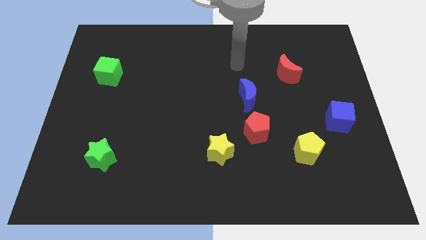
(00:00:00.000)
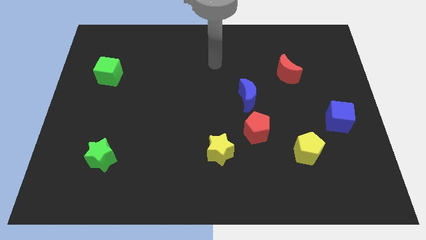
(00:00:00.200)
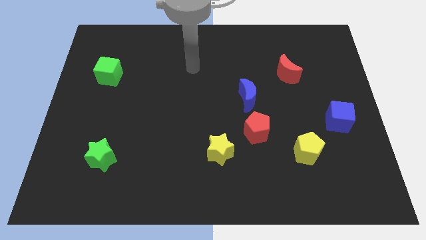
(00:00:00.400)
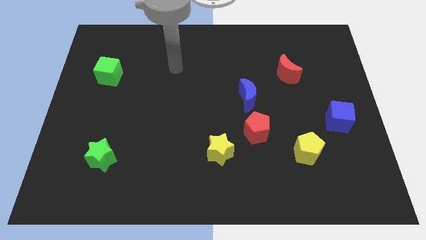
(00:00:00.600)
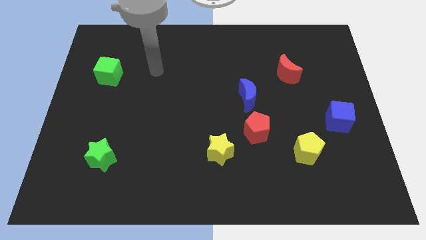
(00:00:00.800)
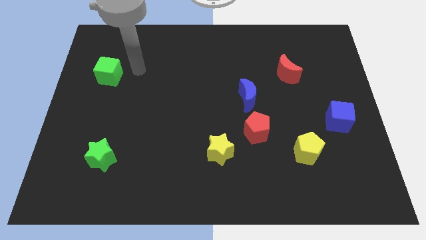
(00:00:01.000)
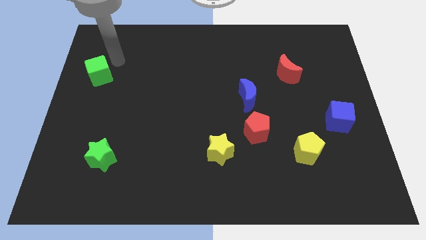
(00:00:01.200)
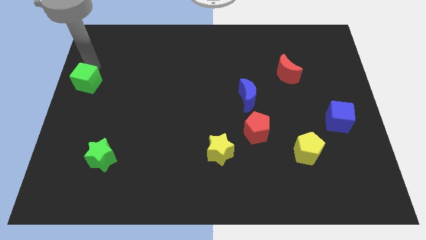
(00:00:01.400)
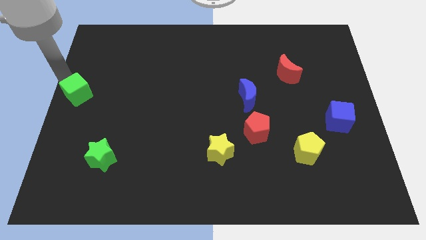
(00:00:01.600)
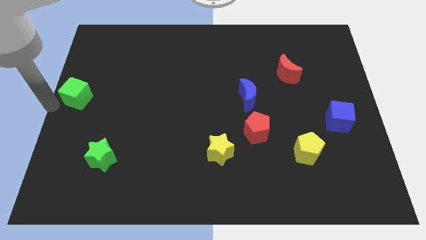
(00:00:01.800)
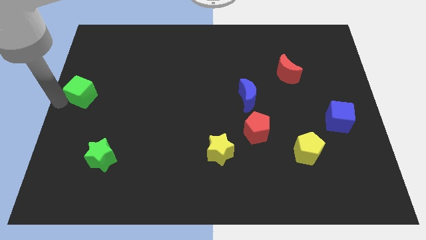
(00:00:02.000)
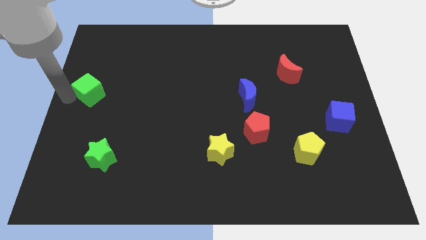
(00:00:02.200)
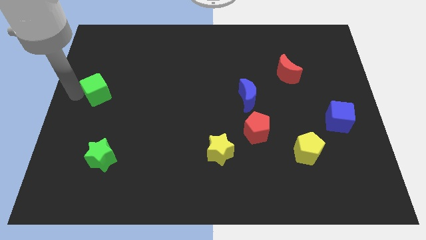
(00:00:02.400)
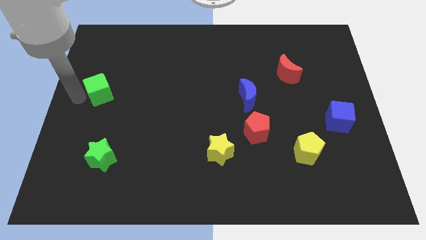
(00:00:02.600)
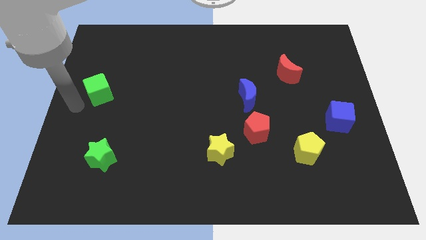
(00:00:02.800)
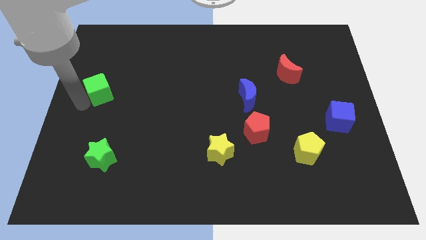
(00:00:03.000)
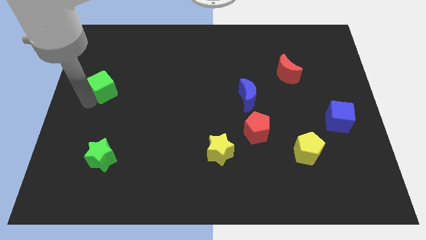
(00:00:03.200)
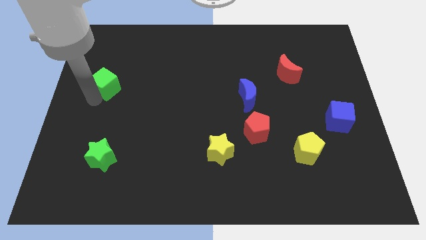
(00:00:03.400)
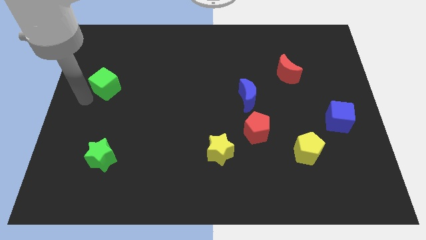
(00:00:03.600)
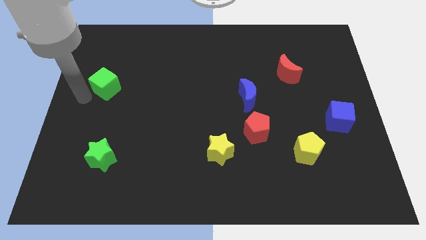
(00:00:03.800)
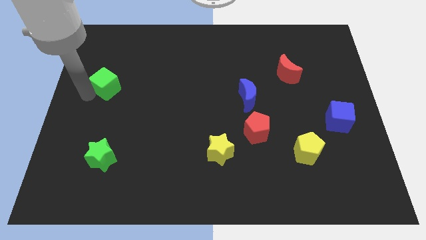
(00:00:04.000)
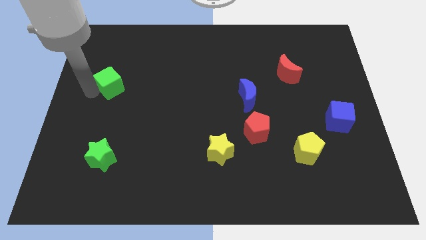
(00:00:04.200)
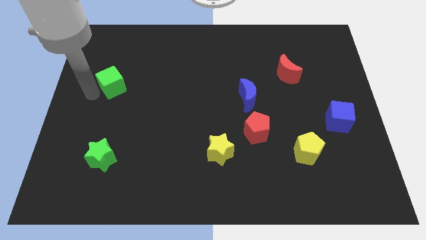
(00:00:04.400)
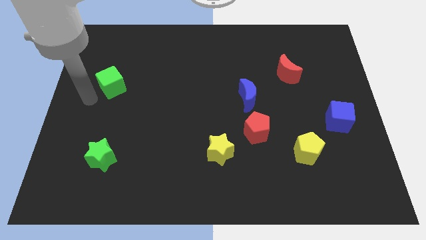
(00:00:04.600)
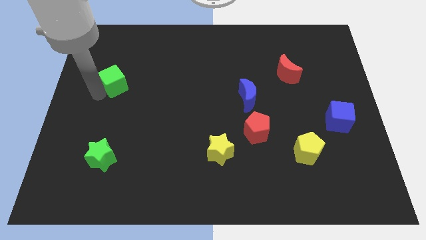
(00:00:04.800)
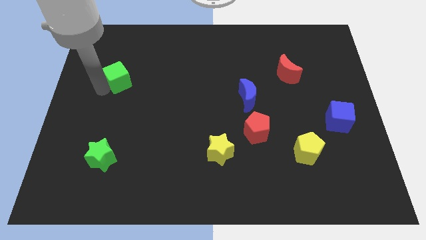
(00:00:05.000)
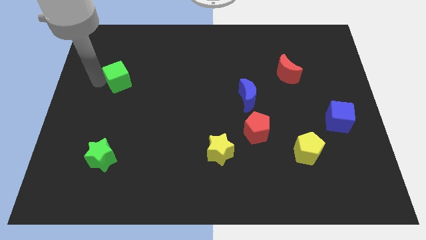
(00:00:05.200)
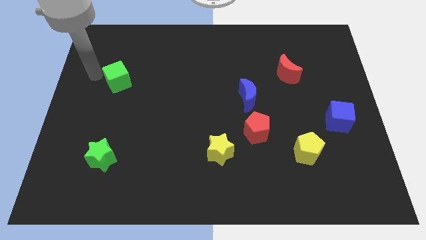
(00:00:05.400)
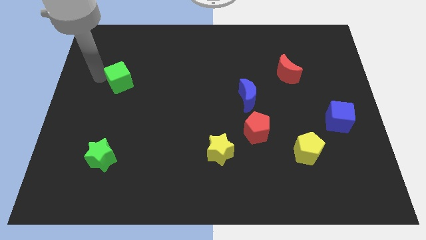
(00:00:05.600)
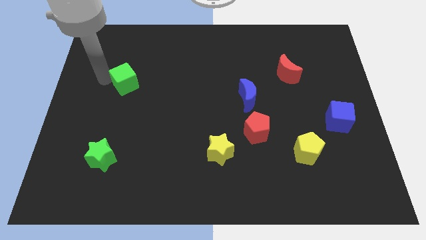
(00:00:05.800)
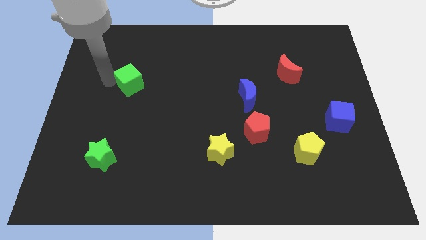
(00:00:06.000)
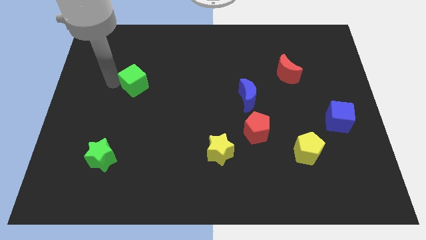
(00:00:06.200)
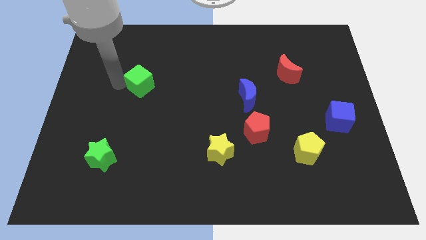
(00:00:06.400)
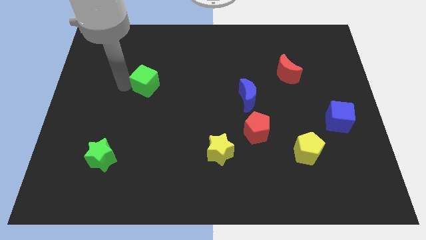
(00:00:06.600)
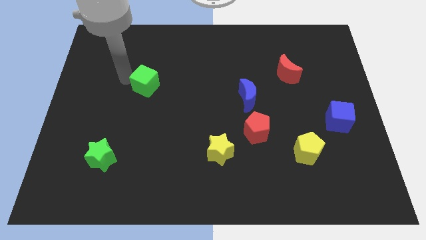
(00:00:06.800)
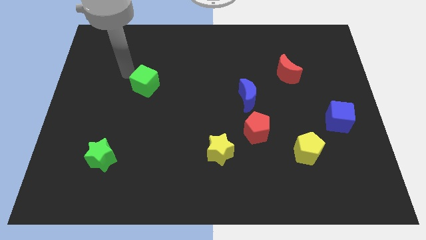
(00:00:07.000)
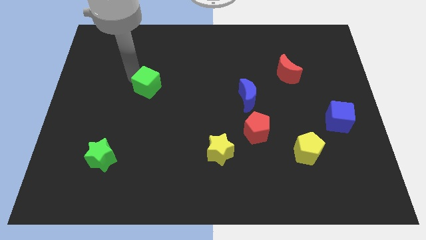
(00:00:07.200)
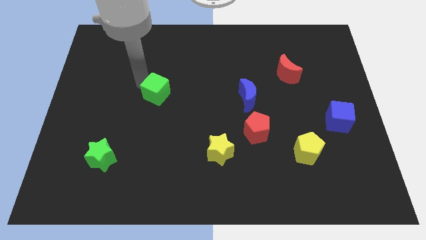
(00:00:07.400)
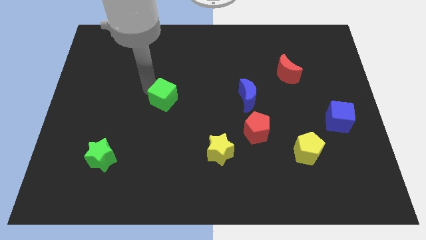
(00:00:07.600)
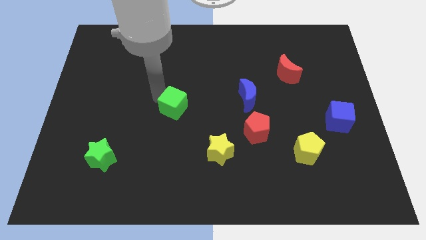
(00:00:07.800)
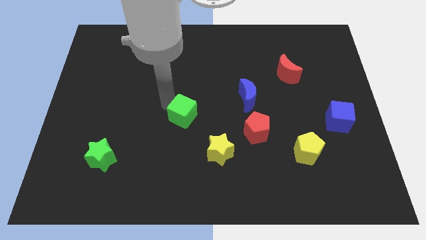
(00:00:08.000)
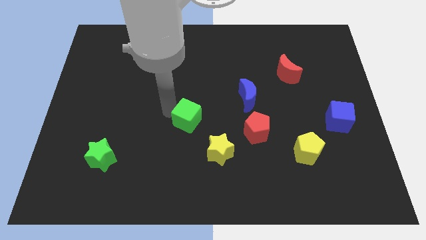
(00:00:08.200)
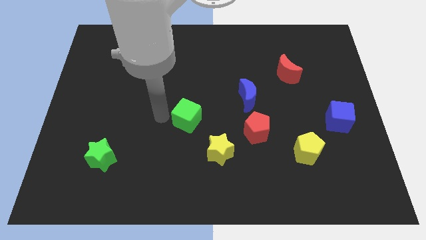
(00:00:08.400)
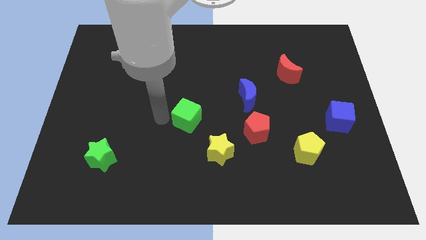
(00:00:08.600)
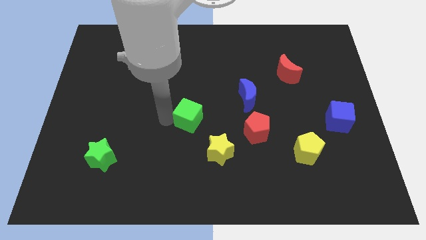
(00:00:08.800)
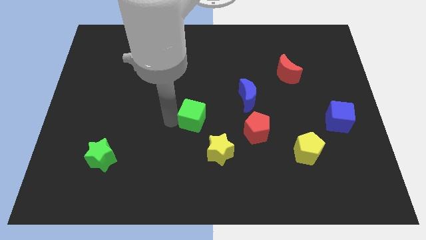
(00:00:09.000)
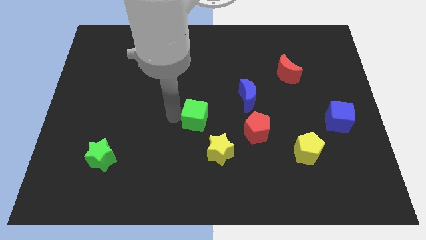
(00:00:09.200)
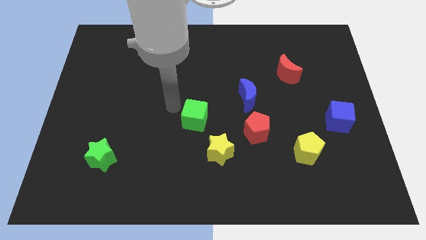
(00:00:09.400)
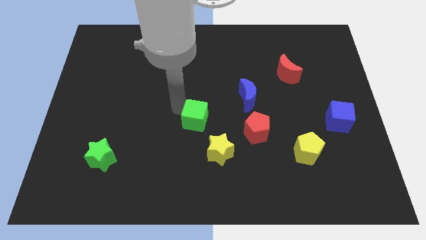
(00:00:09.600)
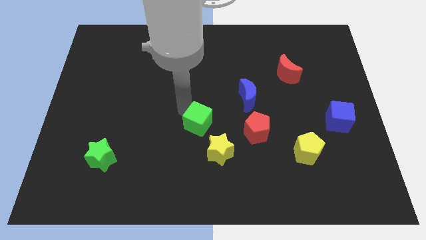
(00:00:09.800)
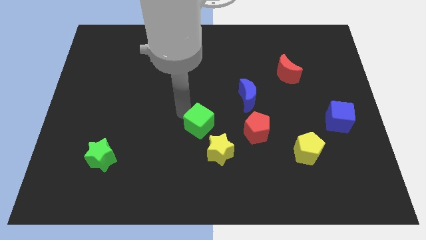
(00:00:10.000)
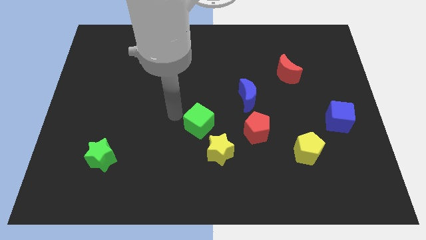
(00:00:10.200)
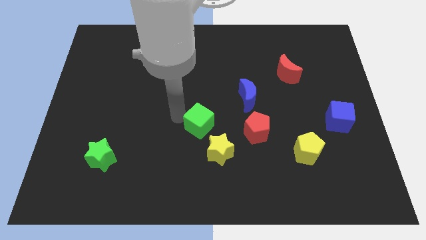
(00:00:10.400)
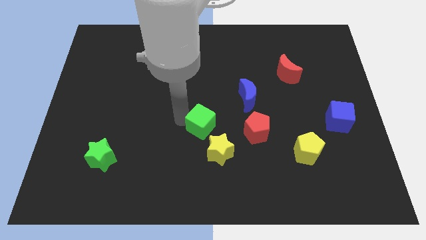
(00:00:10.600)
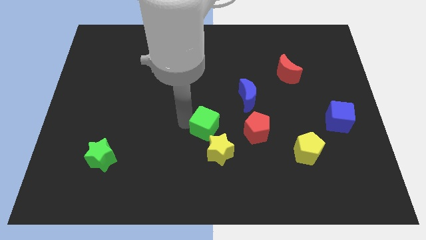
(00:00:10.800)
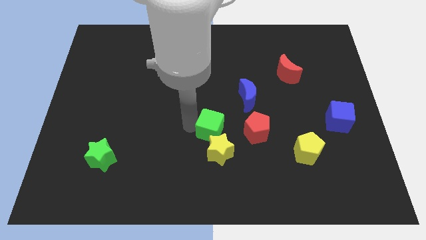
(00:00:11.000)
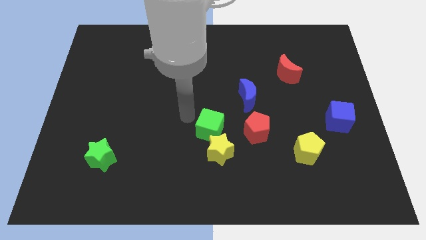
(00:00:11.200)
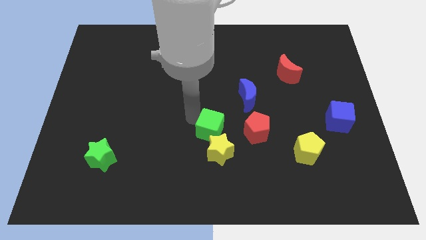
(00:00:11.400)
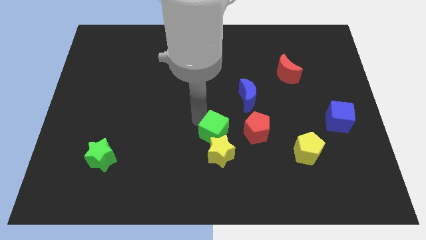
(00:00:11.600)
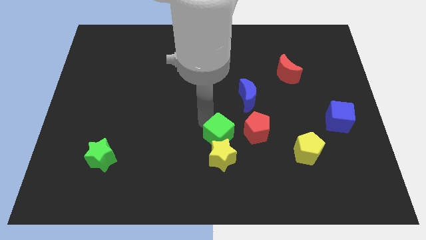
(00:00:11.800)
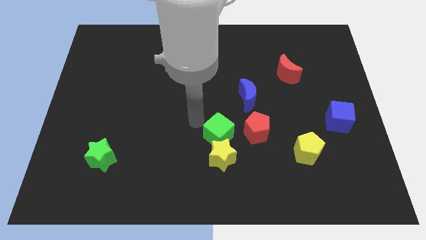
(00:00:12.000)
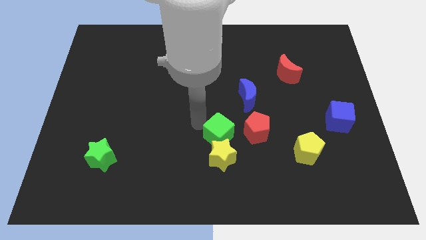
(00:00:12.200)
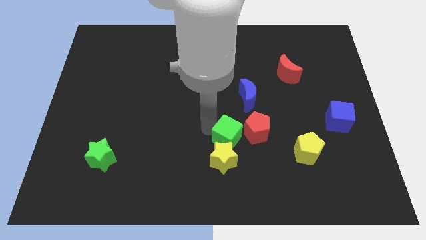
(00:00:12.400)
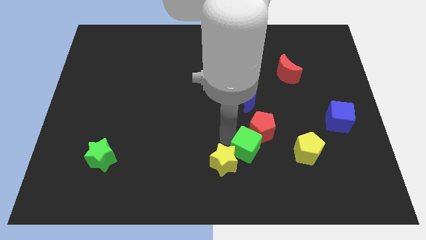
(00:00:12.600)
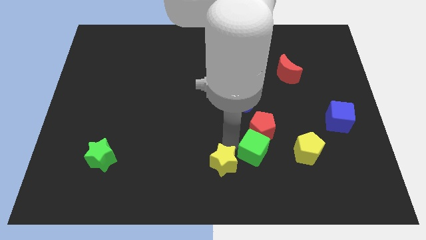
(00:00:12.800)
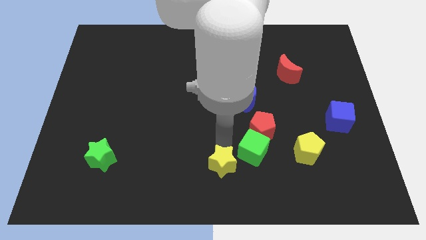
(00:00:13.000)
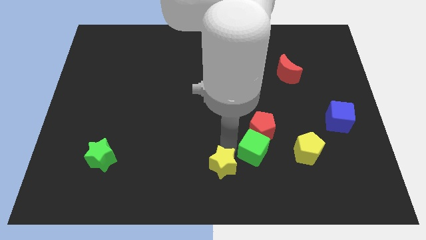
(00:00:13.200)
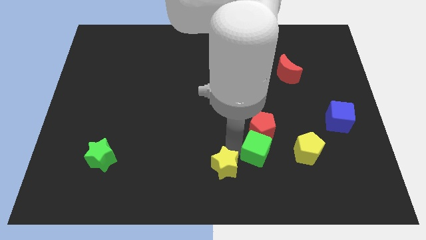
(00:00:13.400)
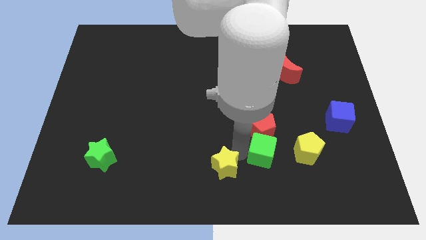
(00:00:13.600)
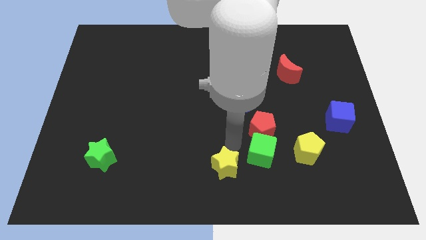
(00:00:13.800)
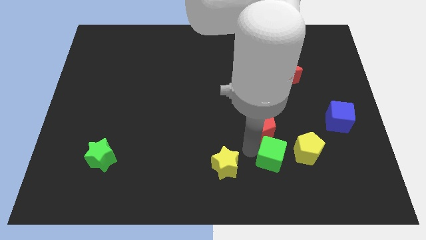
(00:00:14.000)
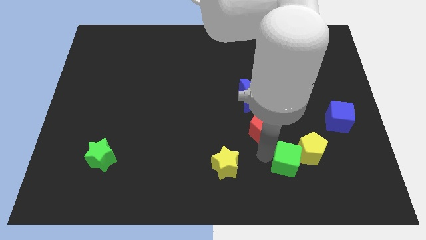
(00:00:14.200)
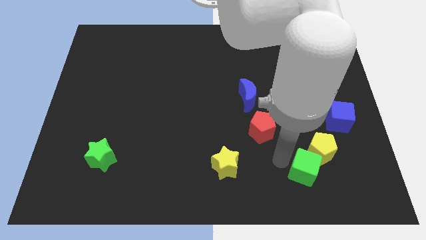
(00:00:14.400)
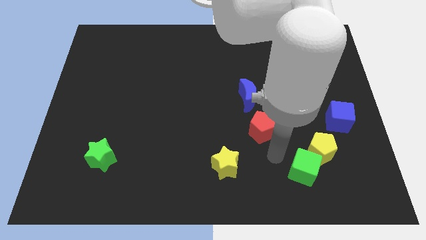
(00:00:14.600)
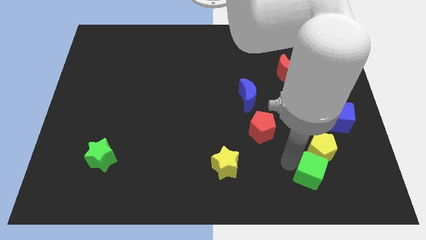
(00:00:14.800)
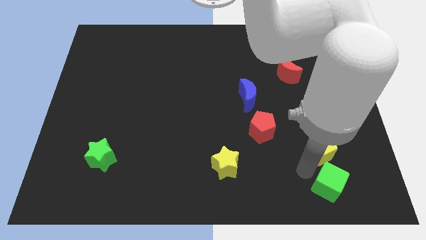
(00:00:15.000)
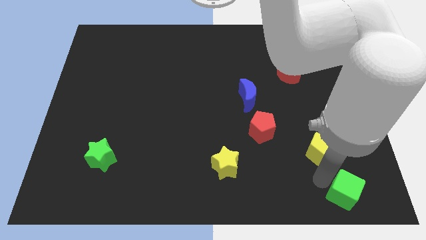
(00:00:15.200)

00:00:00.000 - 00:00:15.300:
slide the green cube to the bottom right of the board
